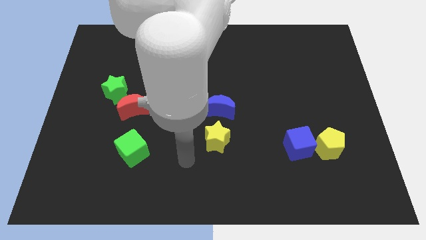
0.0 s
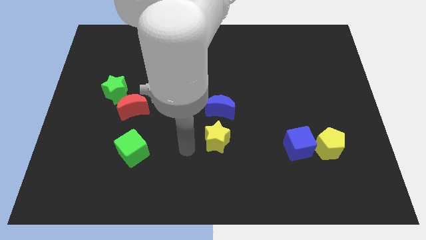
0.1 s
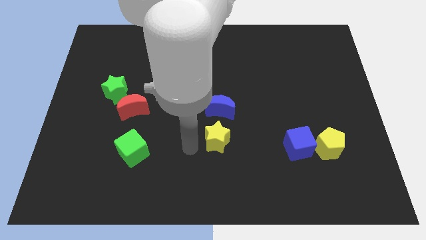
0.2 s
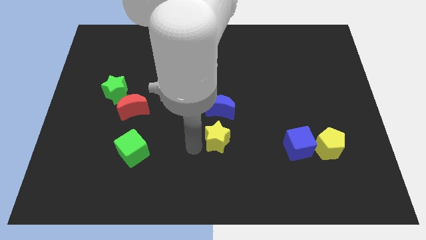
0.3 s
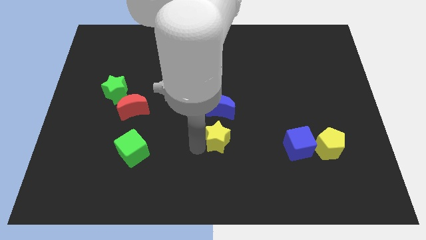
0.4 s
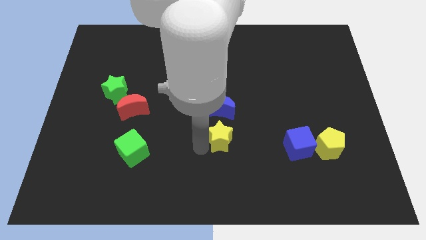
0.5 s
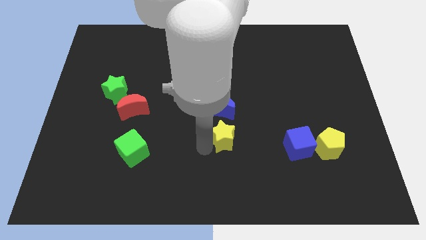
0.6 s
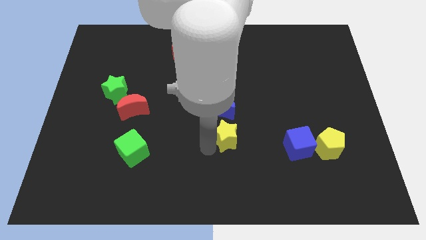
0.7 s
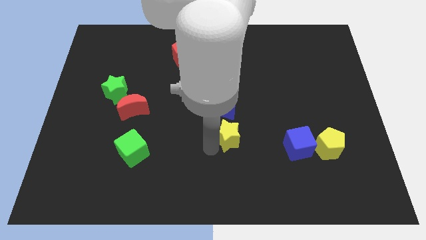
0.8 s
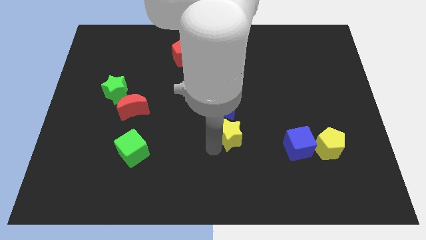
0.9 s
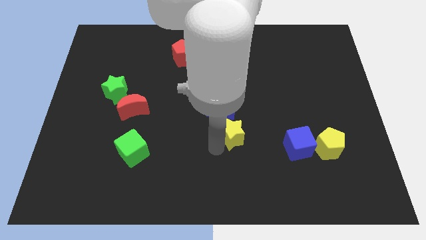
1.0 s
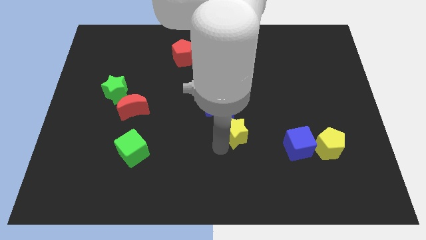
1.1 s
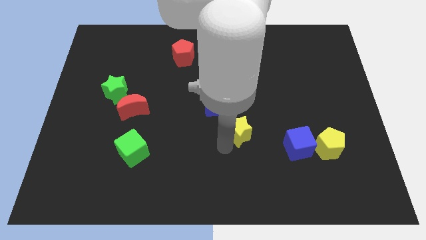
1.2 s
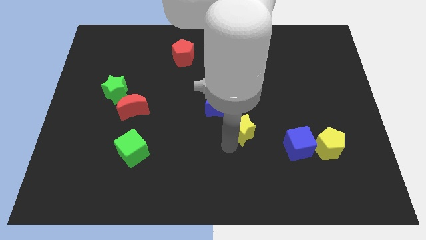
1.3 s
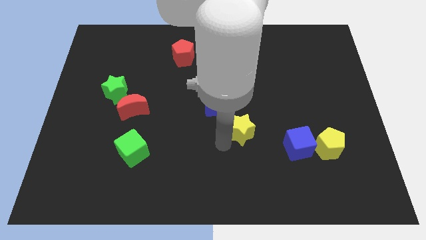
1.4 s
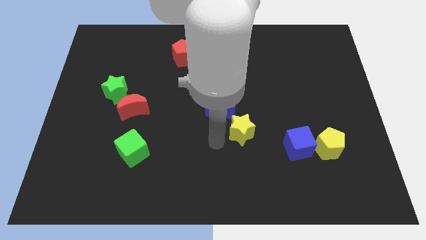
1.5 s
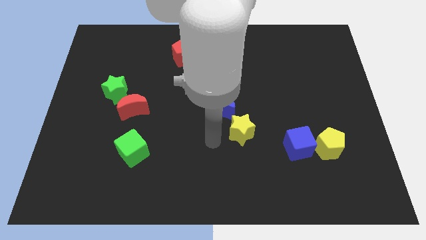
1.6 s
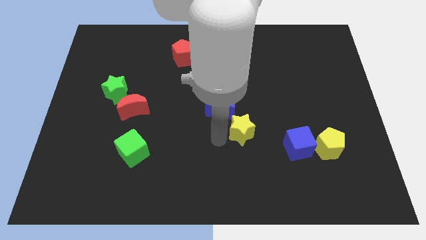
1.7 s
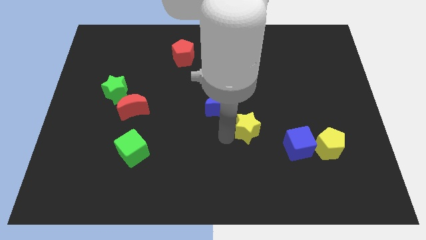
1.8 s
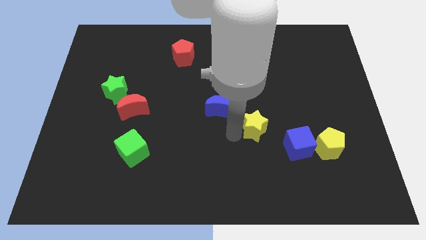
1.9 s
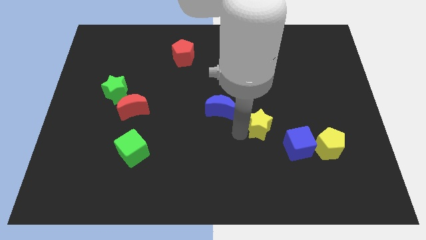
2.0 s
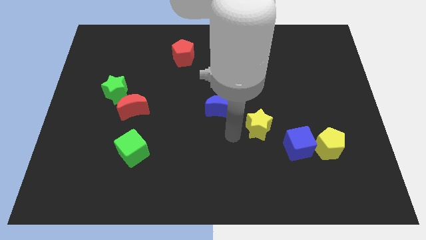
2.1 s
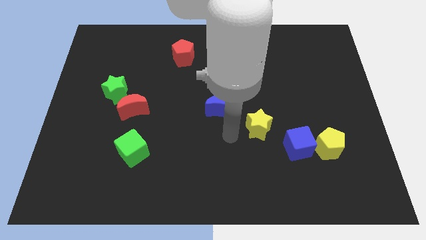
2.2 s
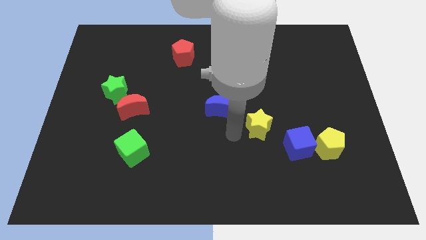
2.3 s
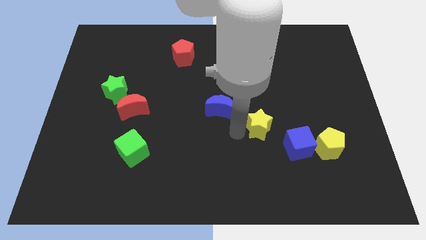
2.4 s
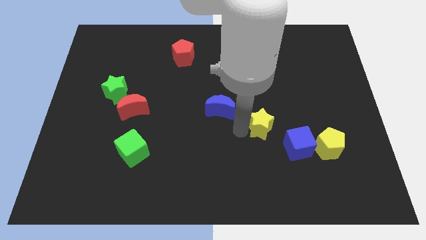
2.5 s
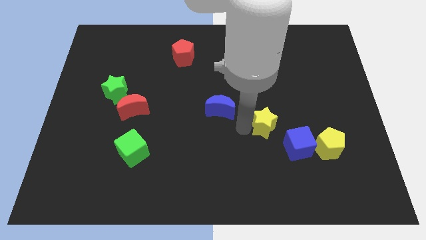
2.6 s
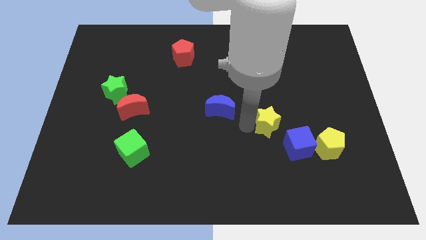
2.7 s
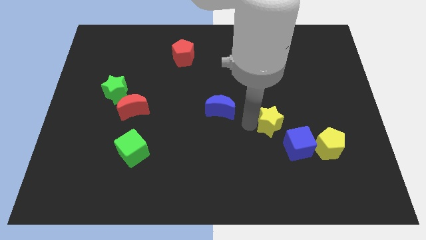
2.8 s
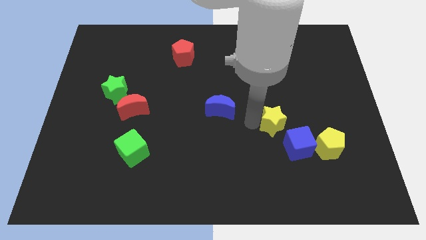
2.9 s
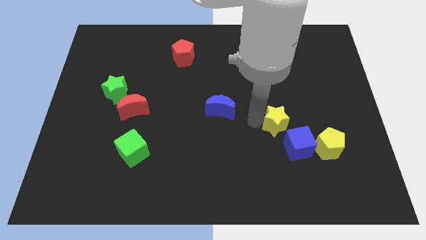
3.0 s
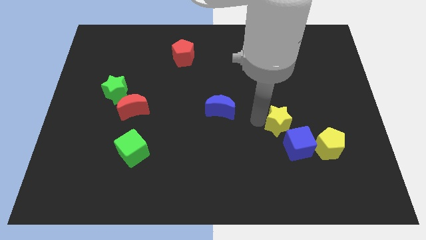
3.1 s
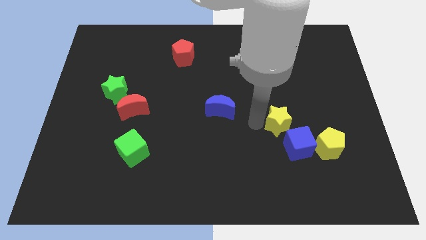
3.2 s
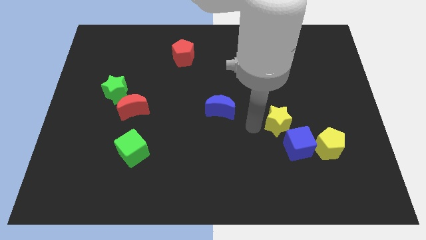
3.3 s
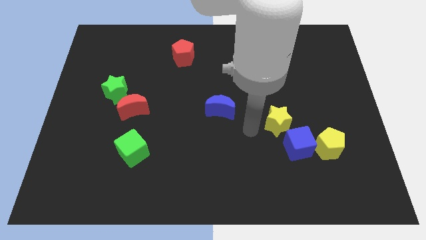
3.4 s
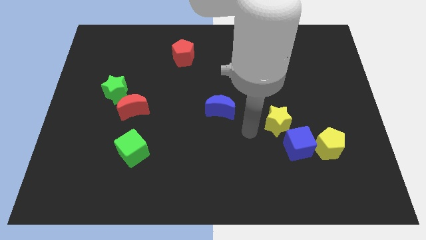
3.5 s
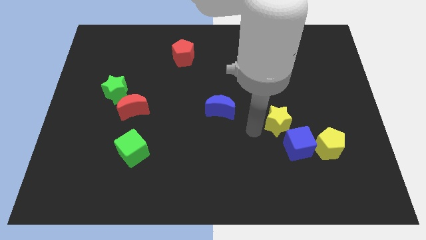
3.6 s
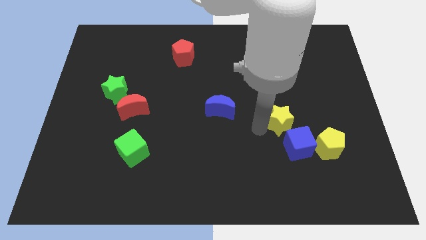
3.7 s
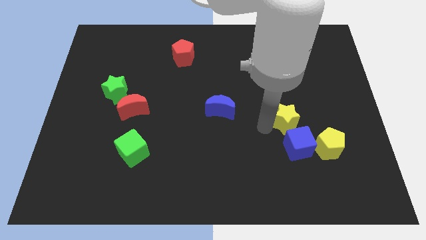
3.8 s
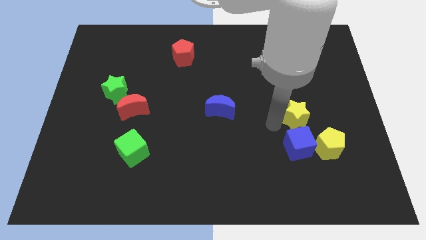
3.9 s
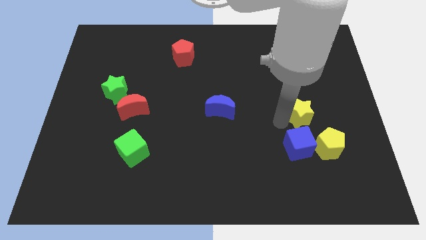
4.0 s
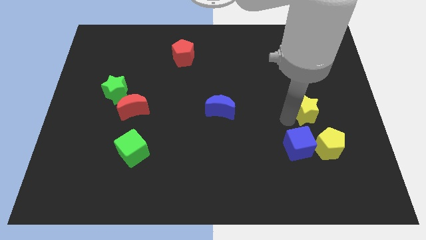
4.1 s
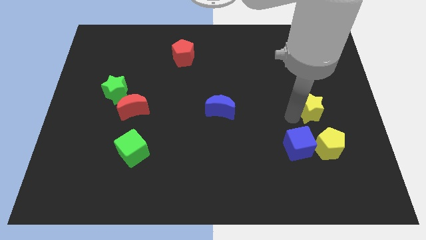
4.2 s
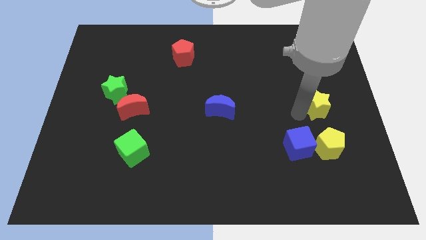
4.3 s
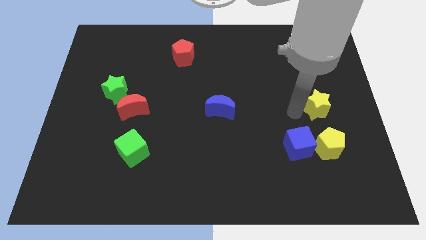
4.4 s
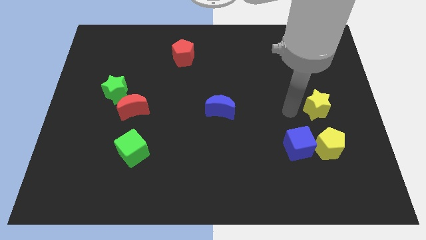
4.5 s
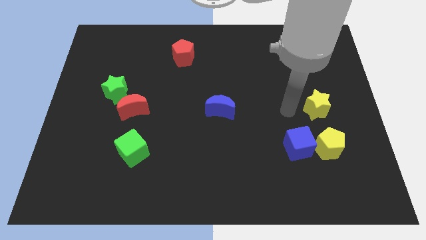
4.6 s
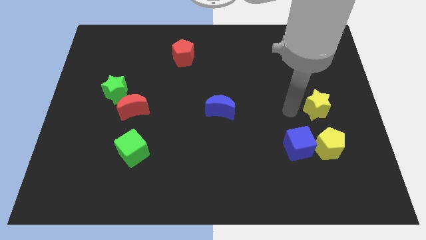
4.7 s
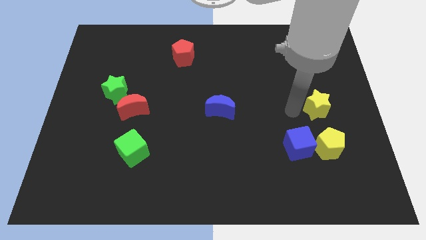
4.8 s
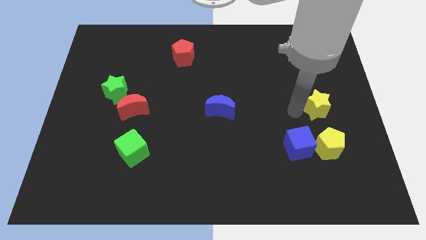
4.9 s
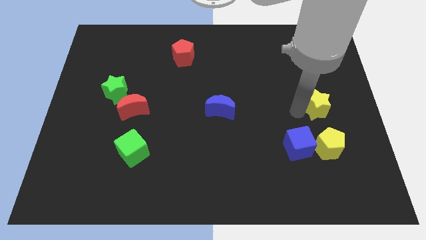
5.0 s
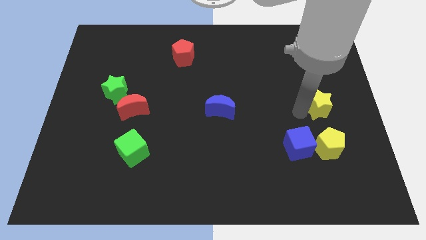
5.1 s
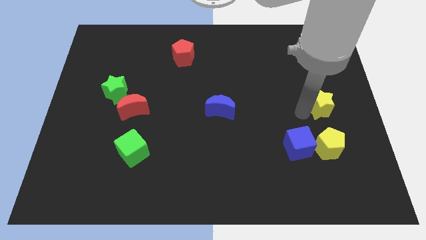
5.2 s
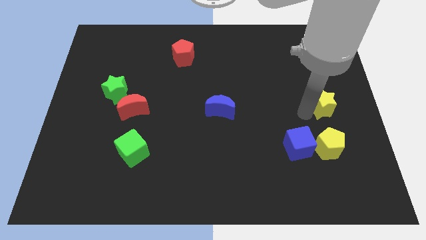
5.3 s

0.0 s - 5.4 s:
push the yellow star to the center right

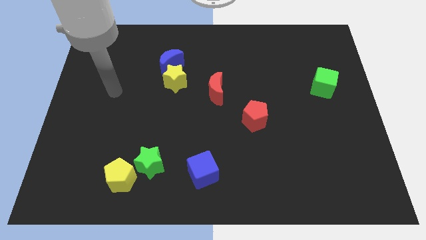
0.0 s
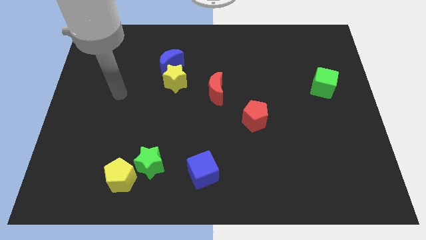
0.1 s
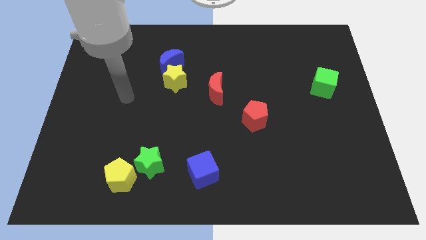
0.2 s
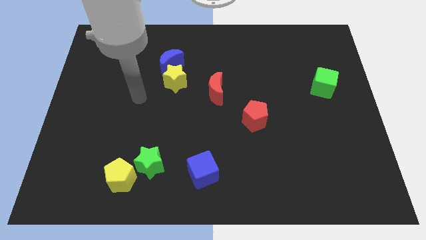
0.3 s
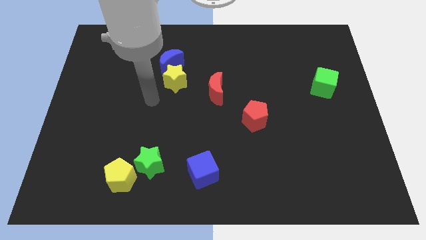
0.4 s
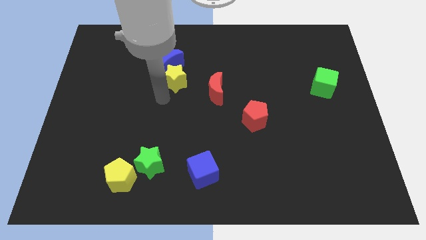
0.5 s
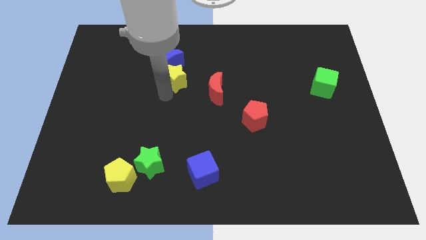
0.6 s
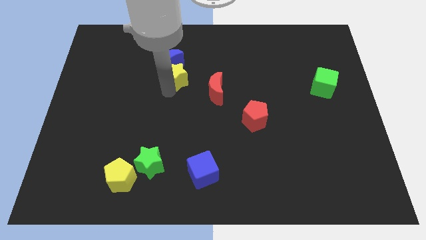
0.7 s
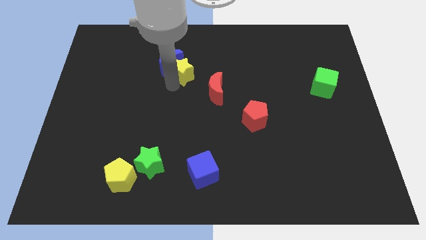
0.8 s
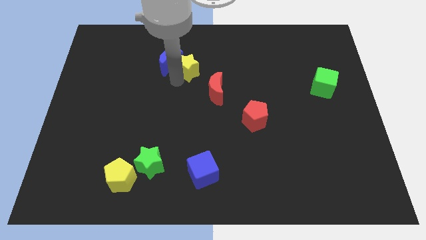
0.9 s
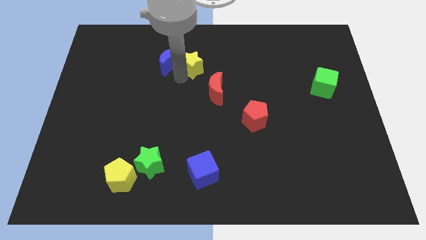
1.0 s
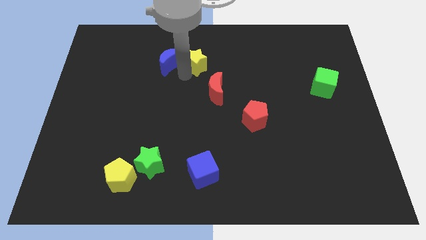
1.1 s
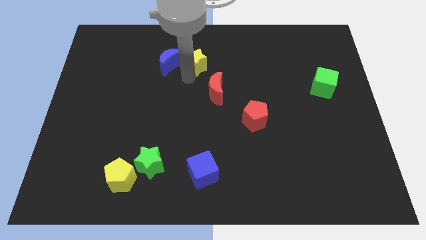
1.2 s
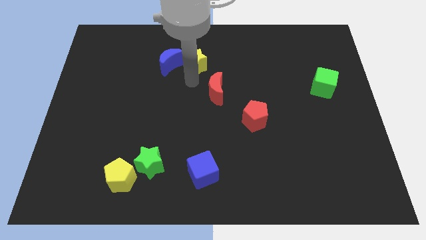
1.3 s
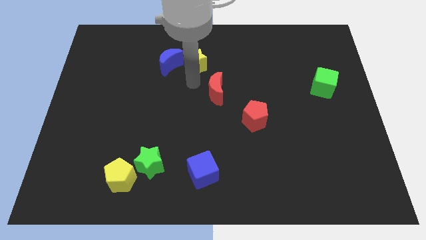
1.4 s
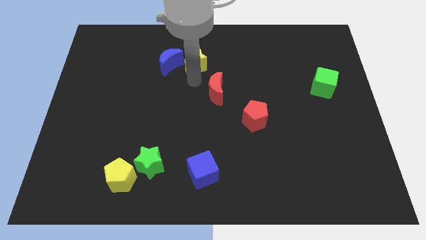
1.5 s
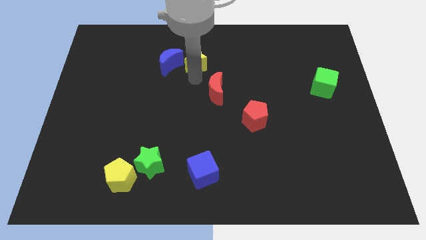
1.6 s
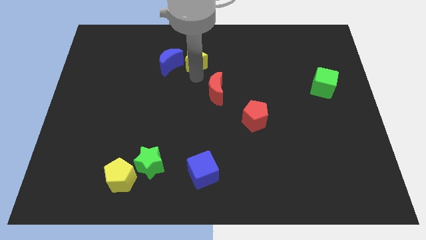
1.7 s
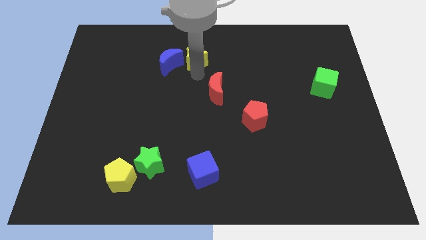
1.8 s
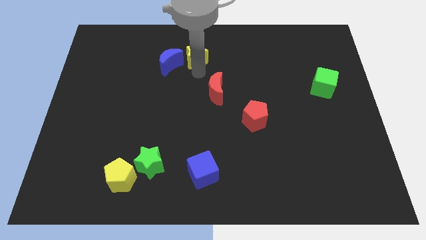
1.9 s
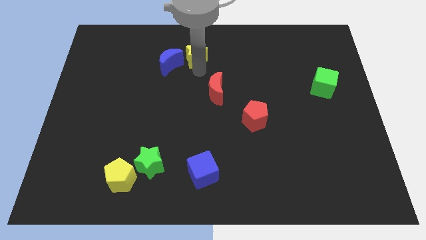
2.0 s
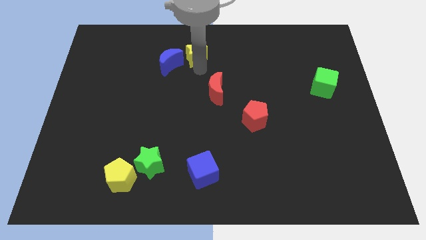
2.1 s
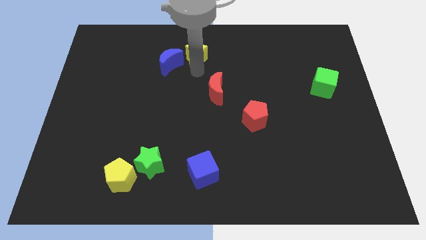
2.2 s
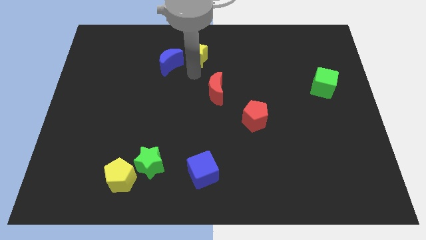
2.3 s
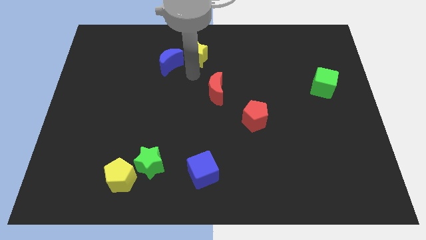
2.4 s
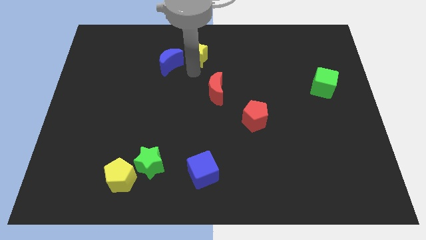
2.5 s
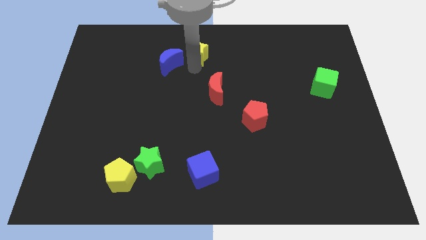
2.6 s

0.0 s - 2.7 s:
slide the yellow star to the top side
